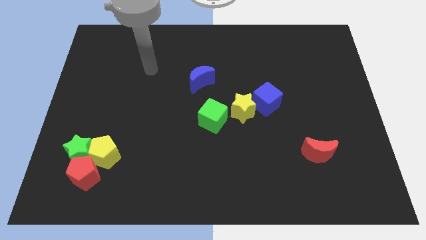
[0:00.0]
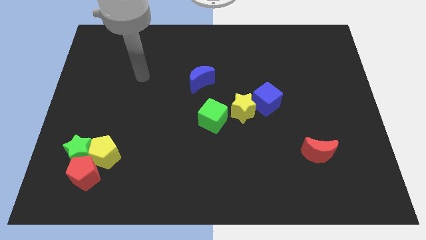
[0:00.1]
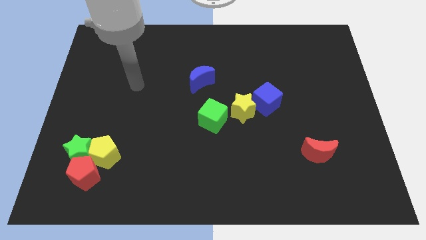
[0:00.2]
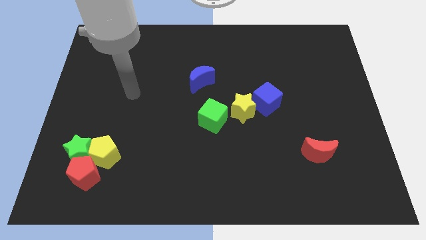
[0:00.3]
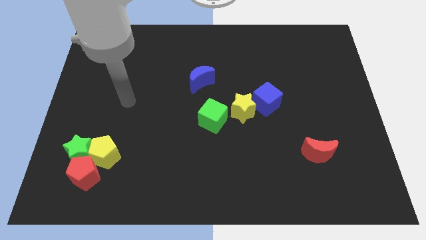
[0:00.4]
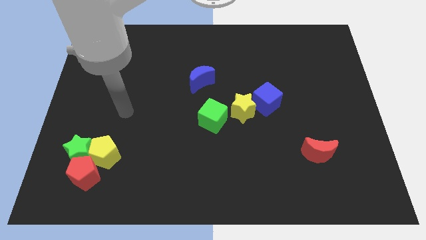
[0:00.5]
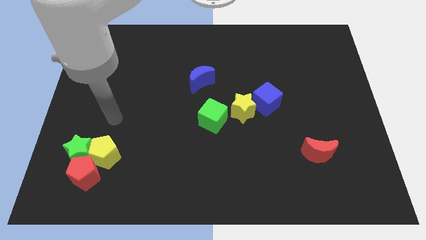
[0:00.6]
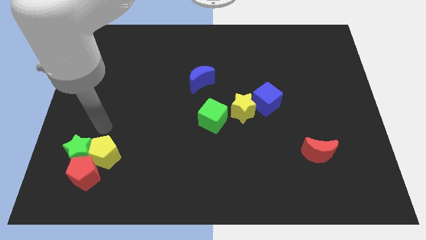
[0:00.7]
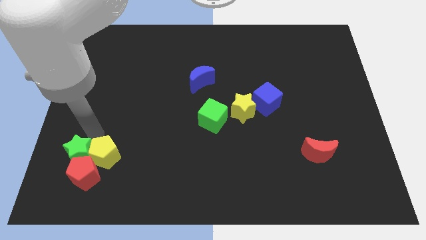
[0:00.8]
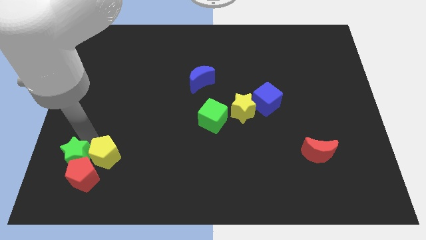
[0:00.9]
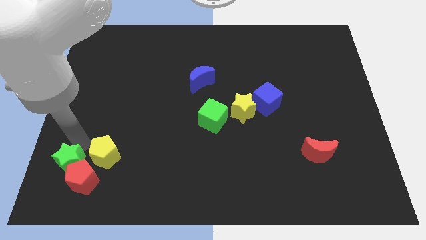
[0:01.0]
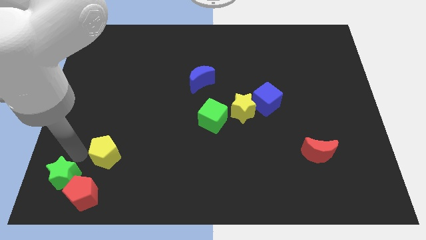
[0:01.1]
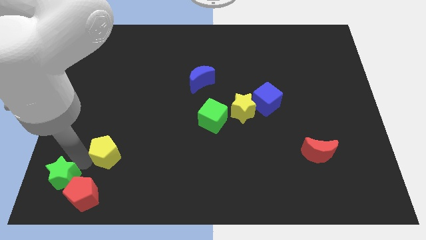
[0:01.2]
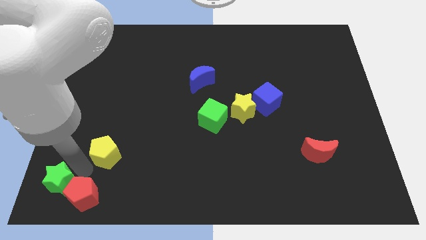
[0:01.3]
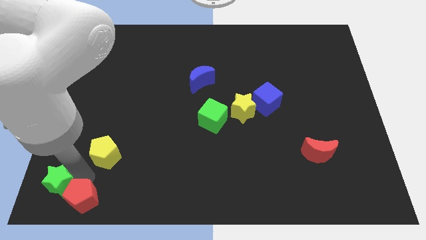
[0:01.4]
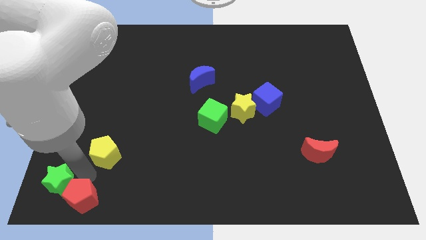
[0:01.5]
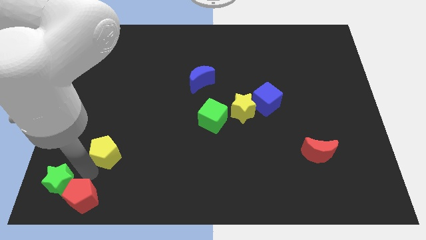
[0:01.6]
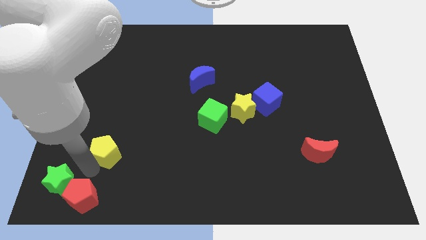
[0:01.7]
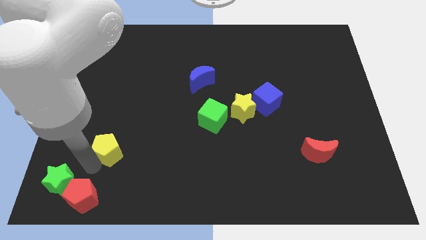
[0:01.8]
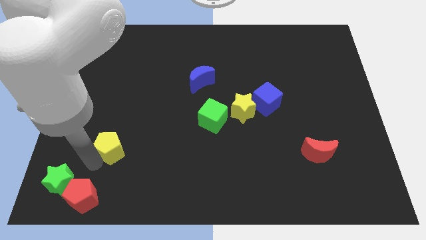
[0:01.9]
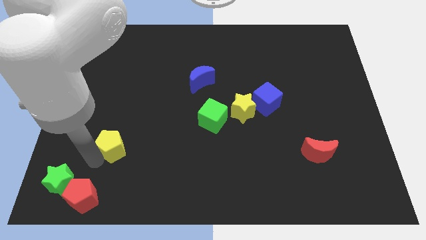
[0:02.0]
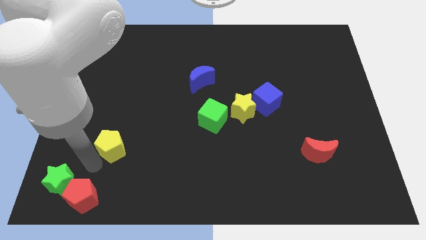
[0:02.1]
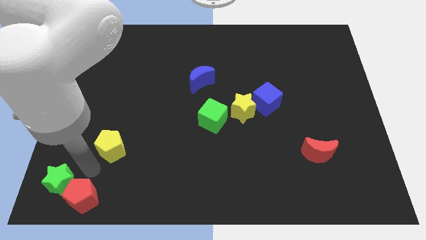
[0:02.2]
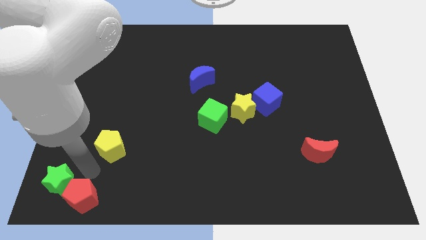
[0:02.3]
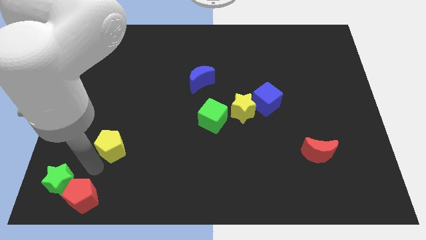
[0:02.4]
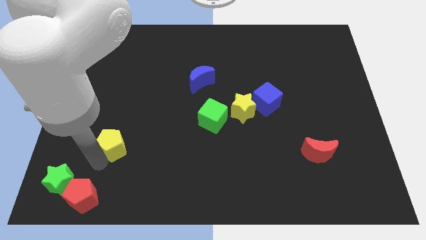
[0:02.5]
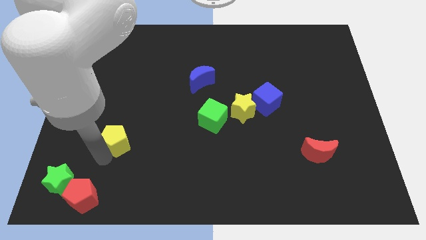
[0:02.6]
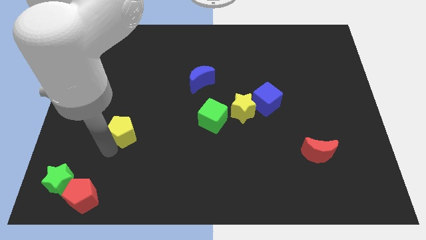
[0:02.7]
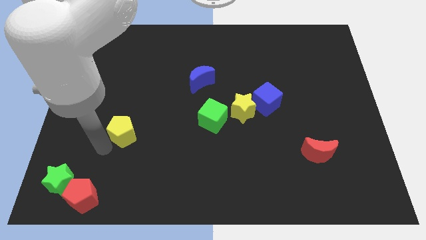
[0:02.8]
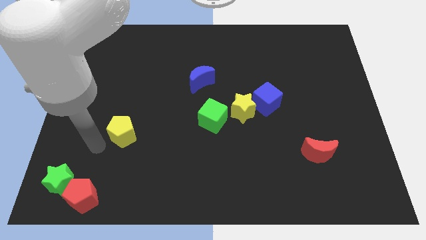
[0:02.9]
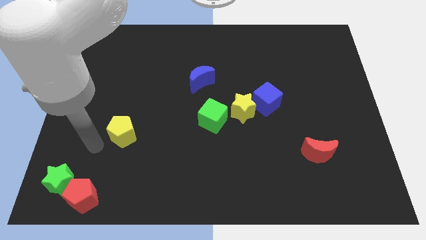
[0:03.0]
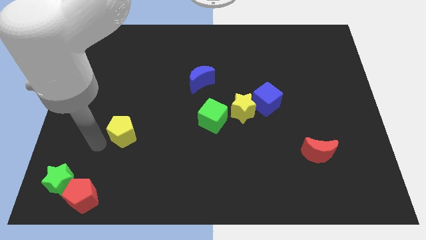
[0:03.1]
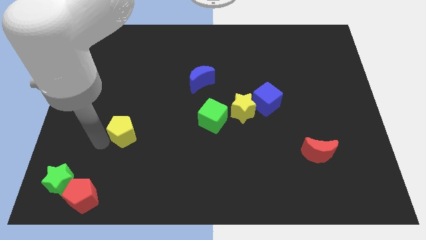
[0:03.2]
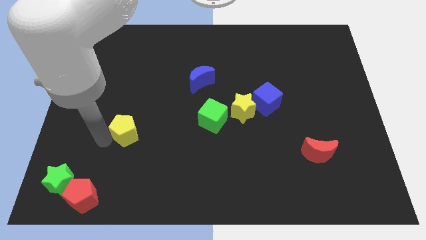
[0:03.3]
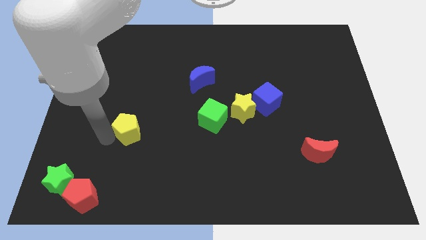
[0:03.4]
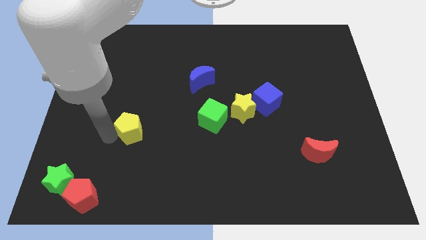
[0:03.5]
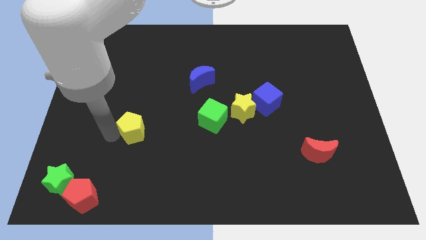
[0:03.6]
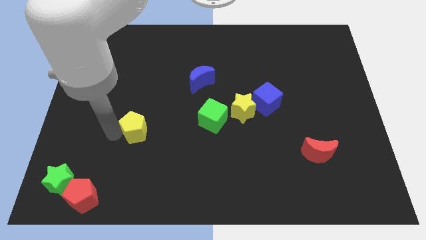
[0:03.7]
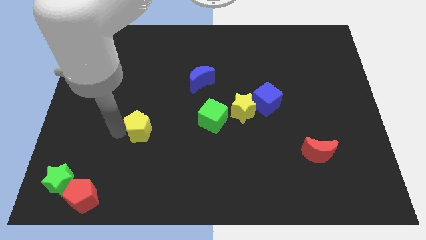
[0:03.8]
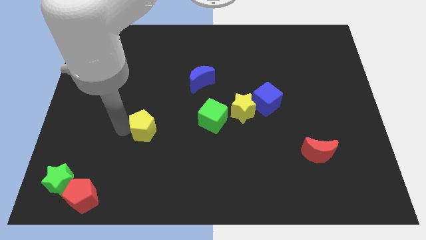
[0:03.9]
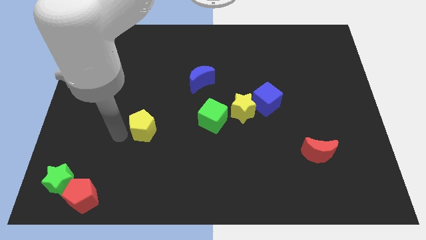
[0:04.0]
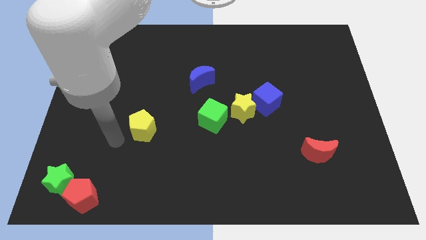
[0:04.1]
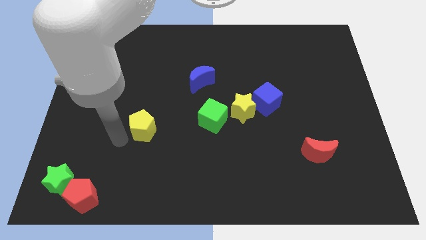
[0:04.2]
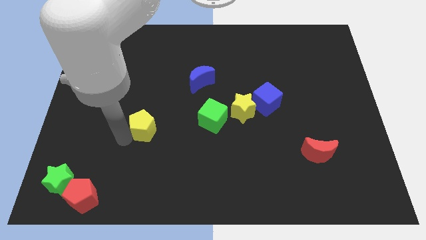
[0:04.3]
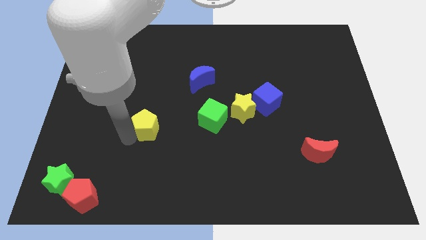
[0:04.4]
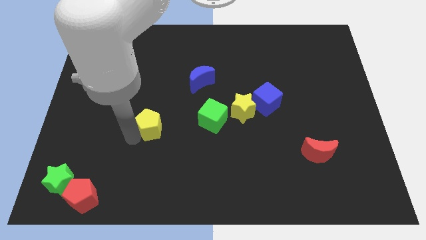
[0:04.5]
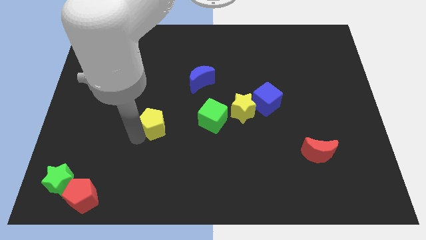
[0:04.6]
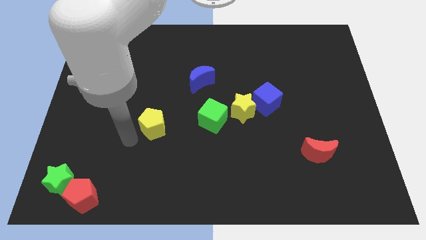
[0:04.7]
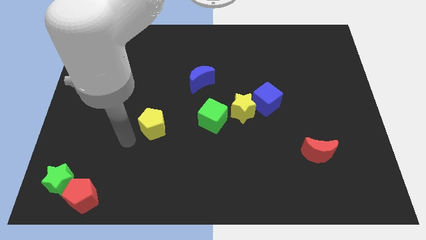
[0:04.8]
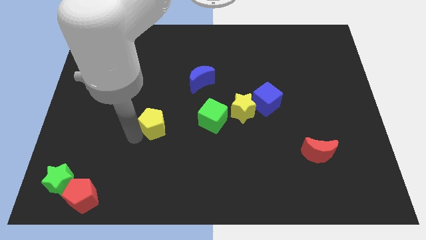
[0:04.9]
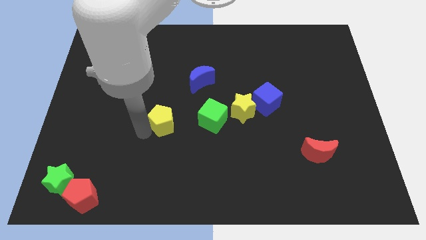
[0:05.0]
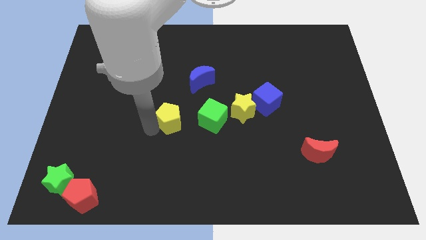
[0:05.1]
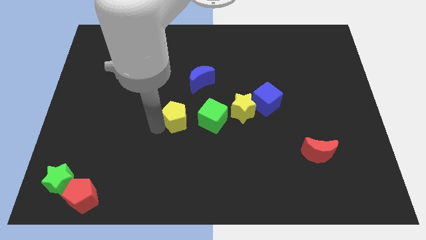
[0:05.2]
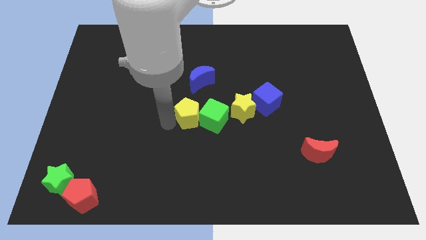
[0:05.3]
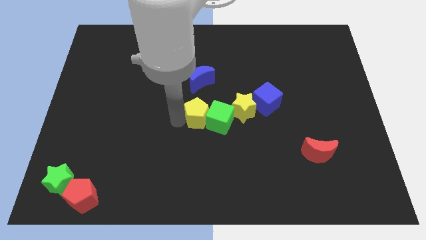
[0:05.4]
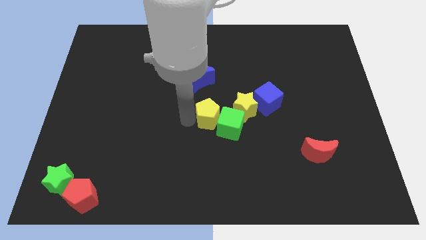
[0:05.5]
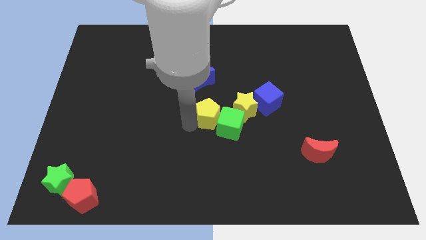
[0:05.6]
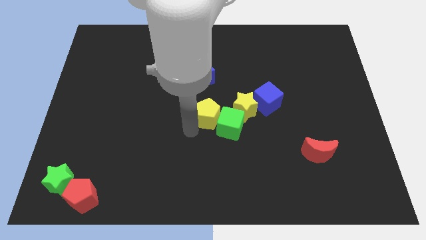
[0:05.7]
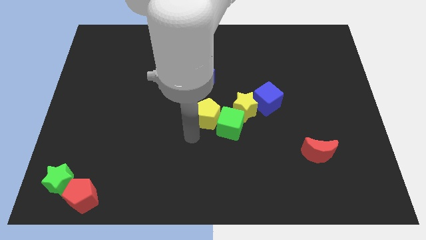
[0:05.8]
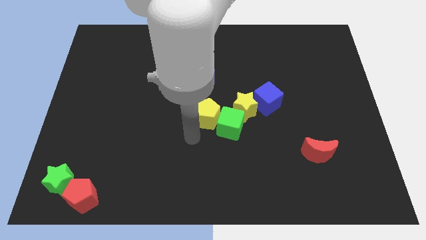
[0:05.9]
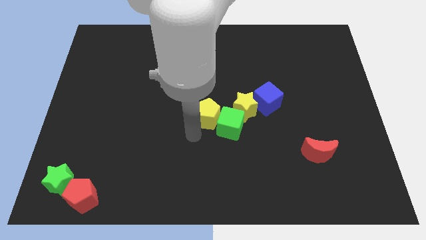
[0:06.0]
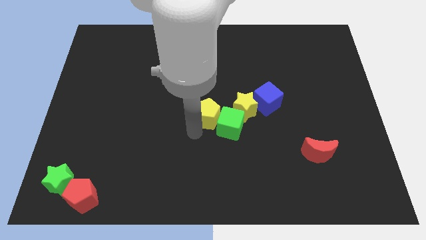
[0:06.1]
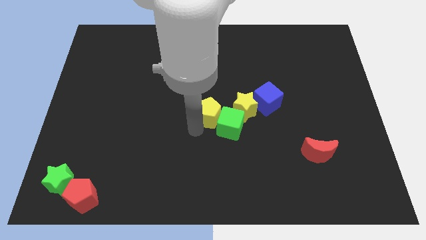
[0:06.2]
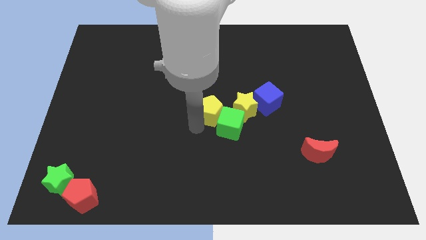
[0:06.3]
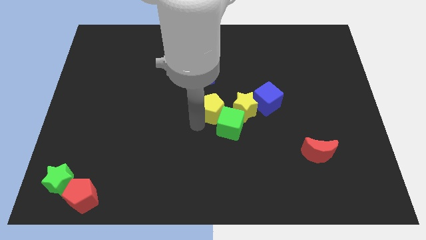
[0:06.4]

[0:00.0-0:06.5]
slide the yellow pentagon to the bottom right side of the blue moon

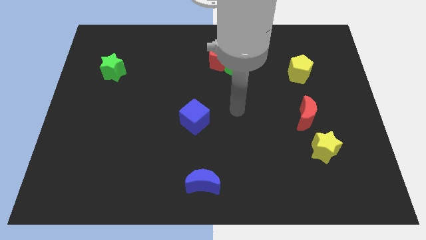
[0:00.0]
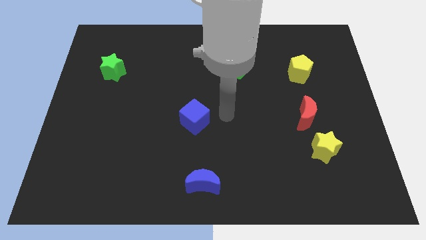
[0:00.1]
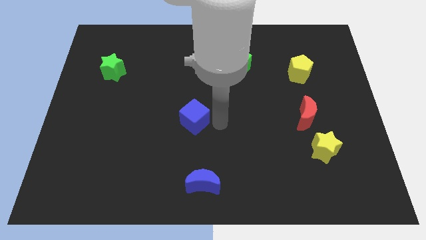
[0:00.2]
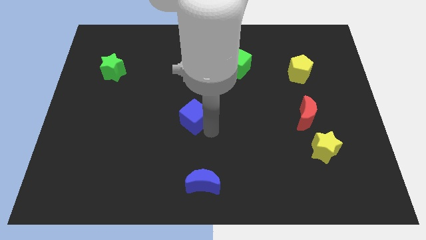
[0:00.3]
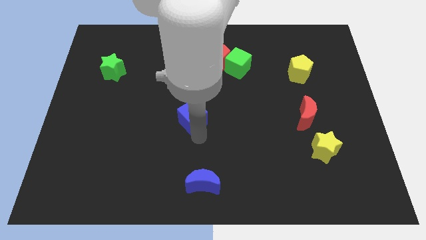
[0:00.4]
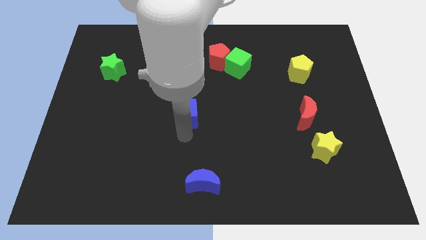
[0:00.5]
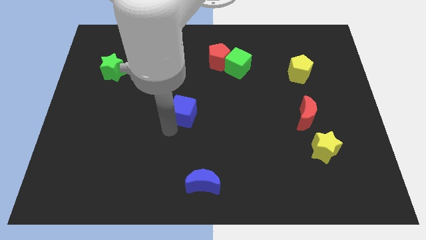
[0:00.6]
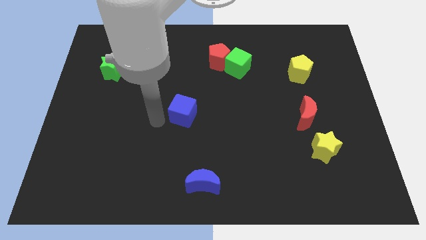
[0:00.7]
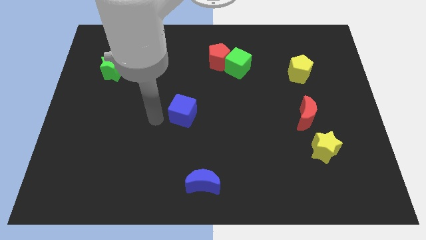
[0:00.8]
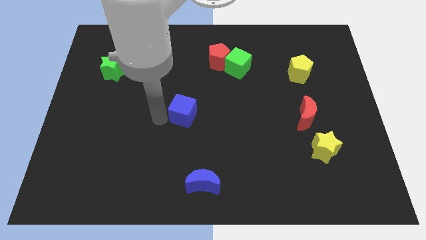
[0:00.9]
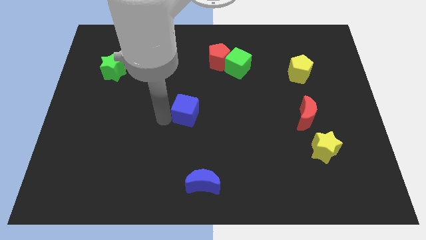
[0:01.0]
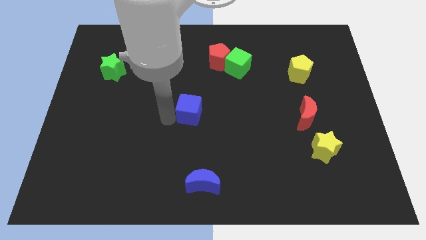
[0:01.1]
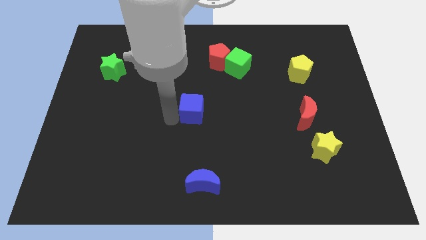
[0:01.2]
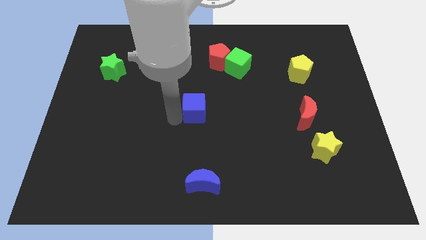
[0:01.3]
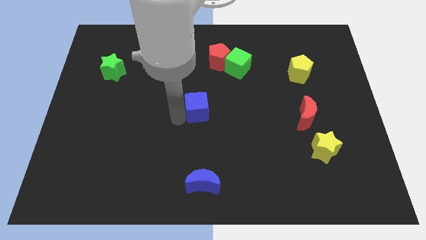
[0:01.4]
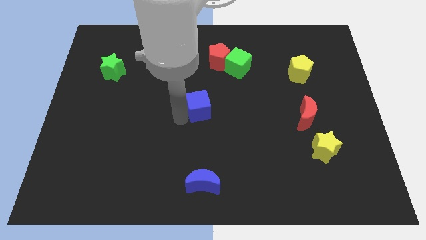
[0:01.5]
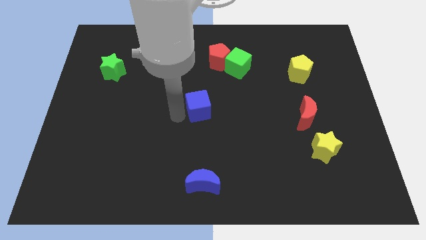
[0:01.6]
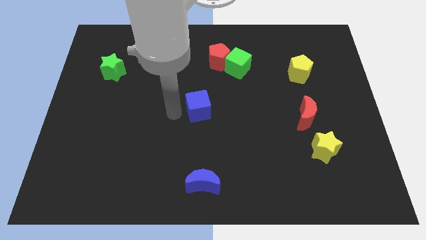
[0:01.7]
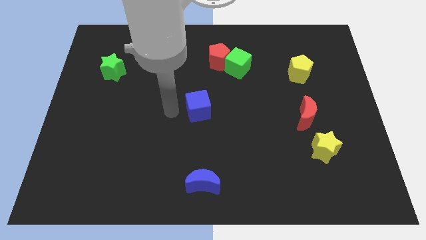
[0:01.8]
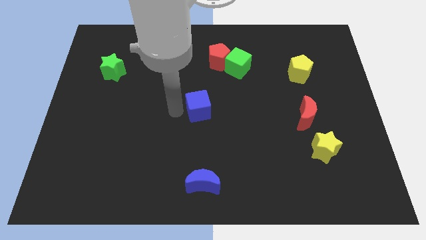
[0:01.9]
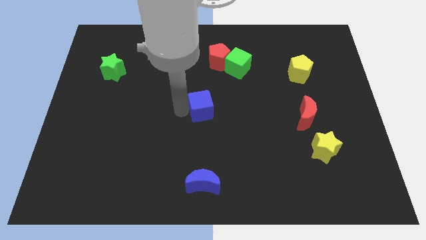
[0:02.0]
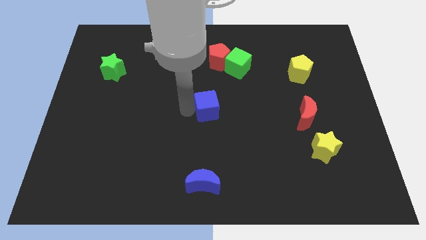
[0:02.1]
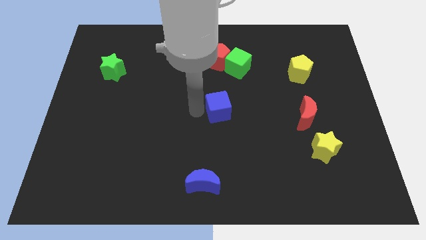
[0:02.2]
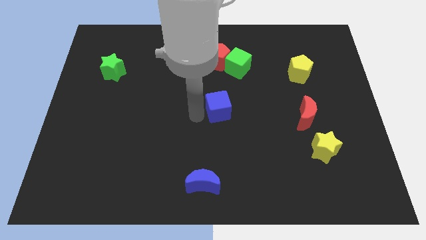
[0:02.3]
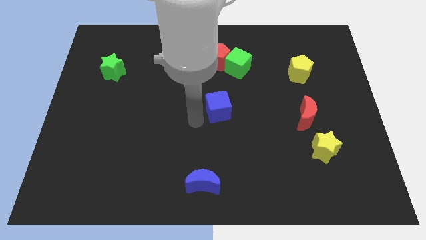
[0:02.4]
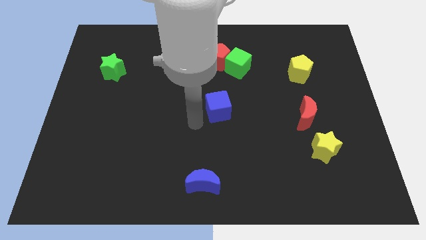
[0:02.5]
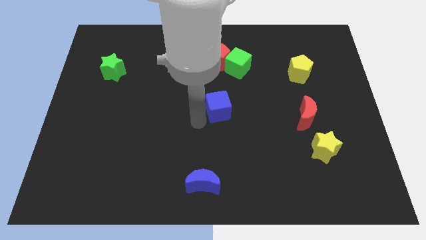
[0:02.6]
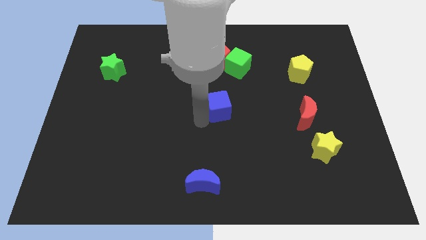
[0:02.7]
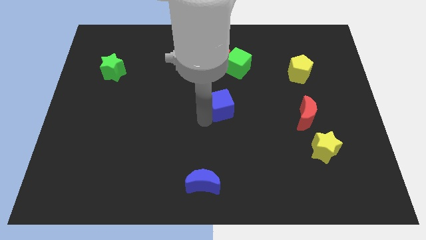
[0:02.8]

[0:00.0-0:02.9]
move the blue cube below the green cube
